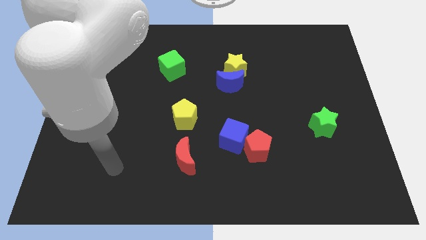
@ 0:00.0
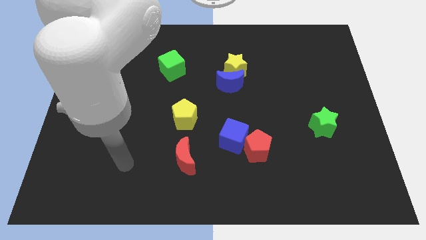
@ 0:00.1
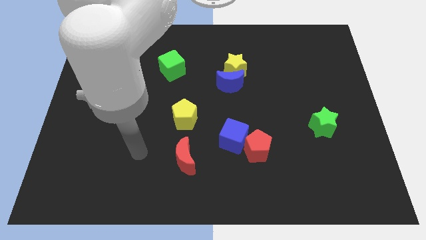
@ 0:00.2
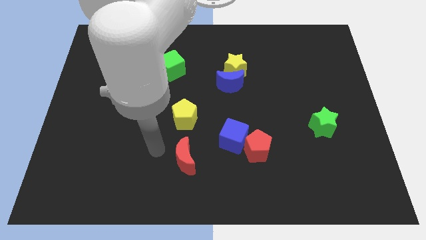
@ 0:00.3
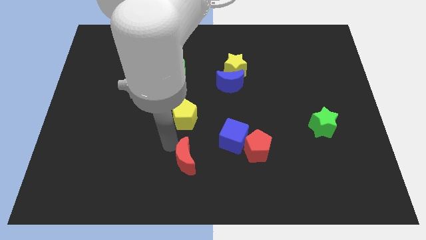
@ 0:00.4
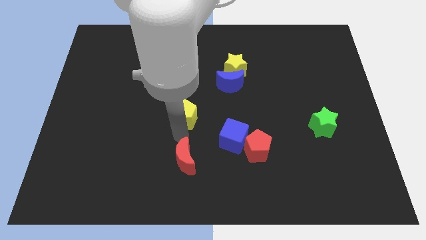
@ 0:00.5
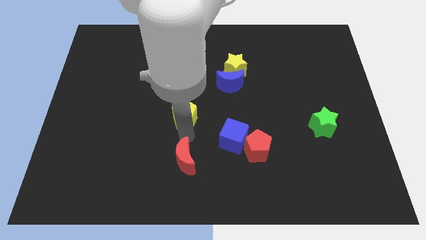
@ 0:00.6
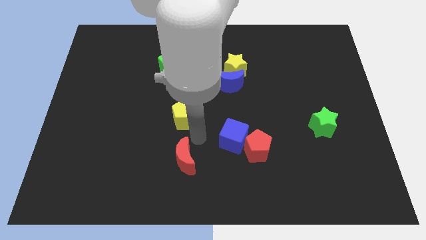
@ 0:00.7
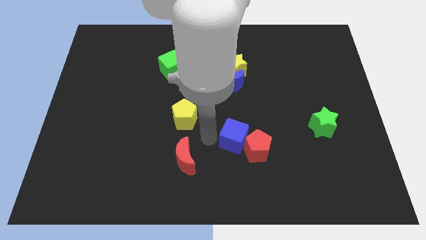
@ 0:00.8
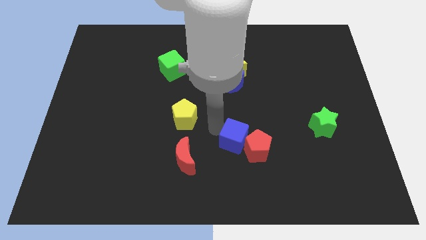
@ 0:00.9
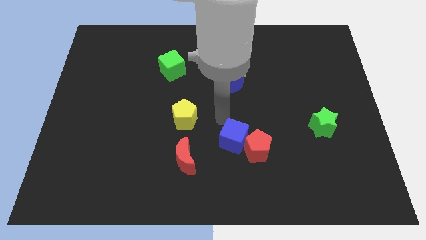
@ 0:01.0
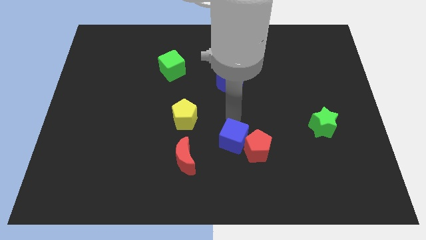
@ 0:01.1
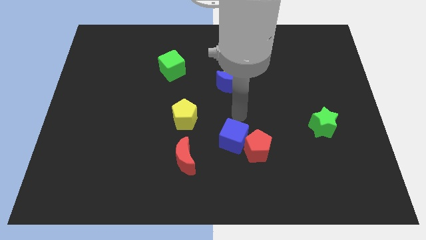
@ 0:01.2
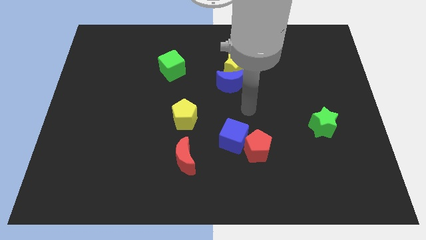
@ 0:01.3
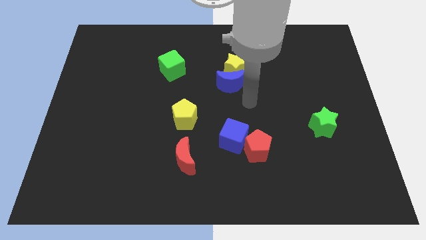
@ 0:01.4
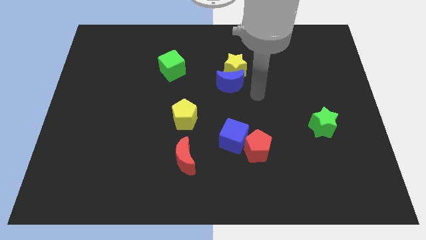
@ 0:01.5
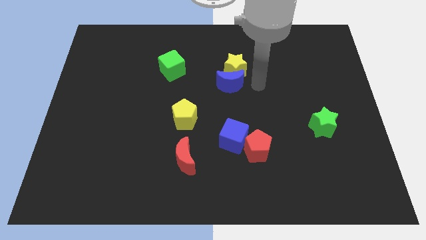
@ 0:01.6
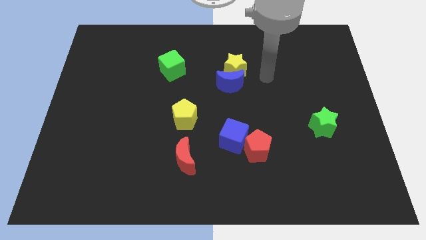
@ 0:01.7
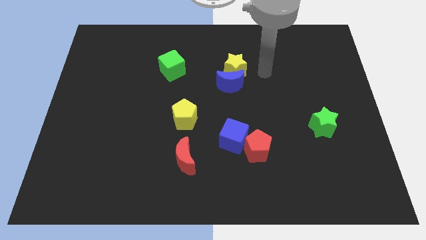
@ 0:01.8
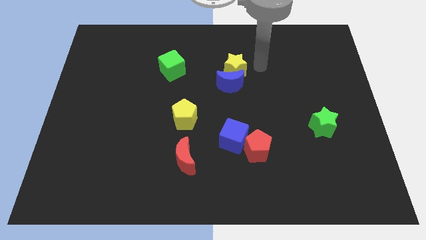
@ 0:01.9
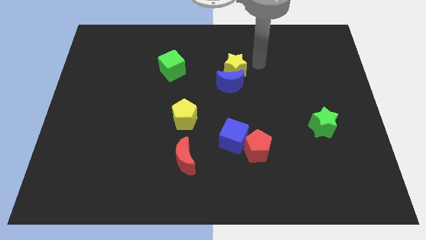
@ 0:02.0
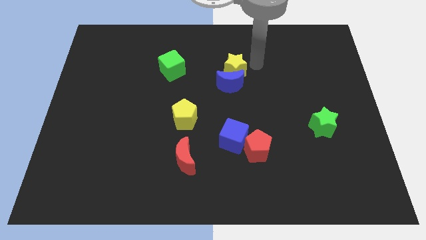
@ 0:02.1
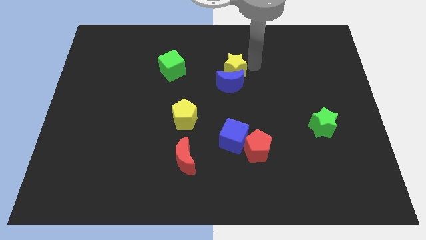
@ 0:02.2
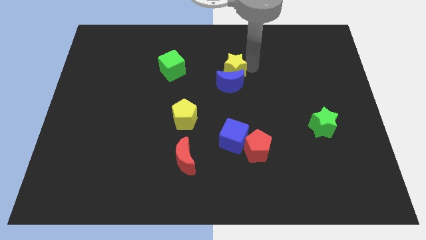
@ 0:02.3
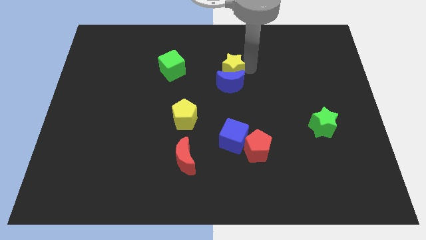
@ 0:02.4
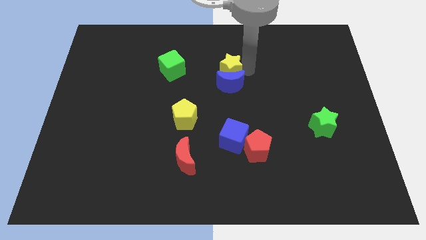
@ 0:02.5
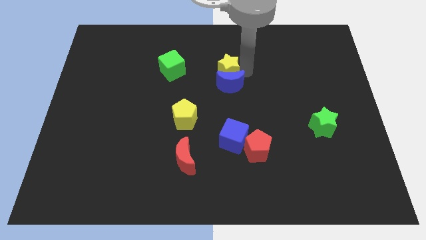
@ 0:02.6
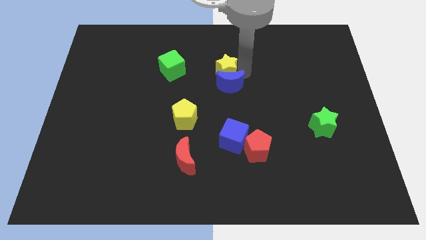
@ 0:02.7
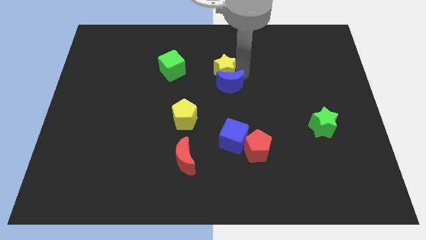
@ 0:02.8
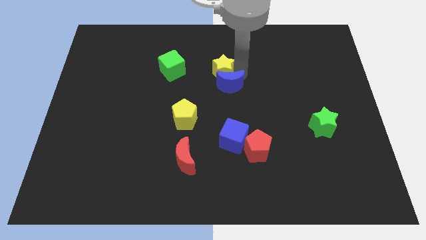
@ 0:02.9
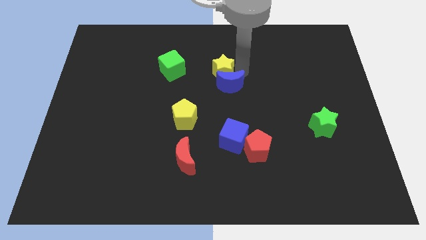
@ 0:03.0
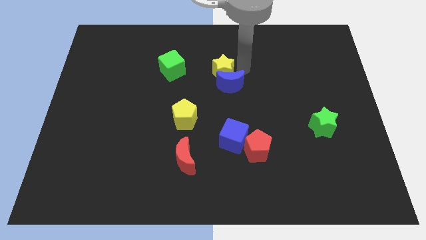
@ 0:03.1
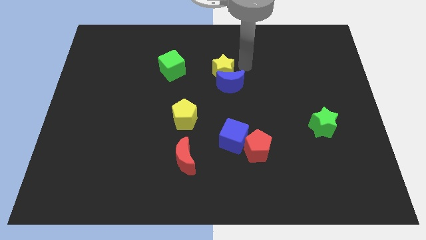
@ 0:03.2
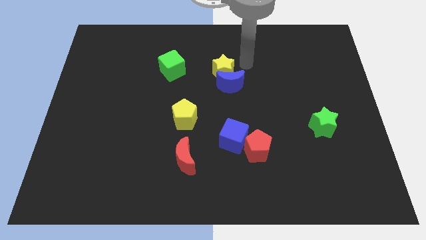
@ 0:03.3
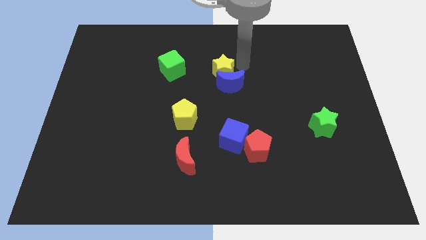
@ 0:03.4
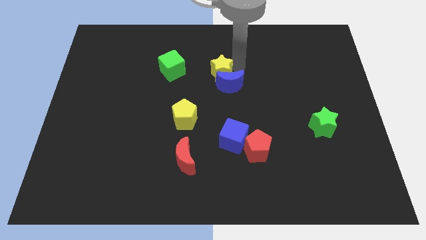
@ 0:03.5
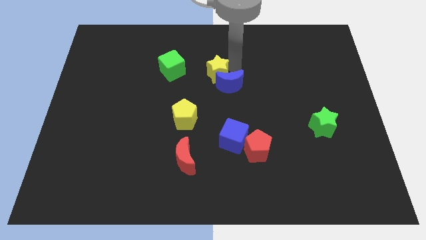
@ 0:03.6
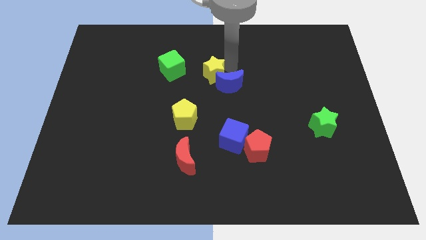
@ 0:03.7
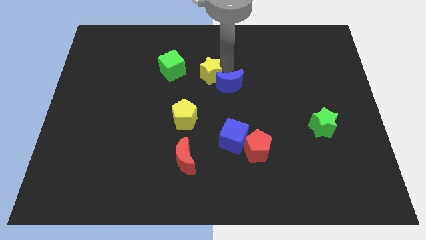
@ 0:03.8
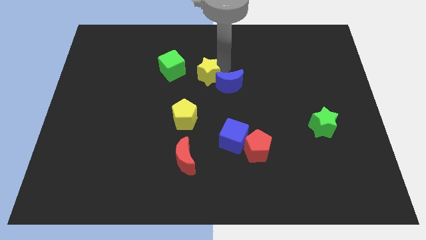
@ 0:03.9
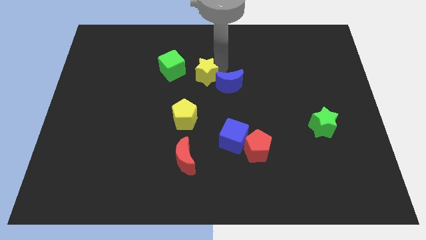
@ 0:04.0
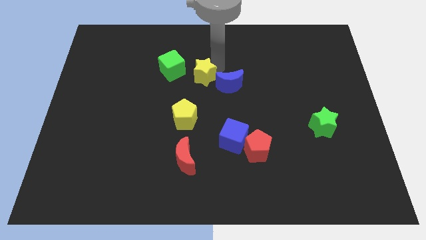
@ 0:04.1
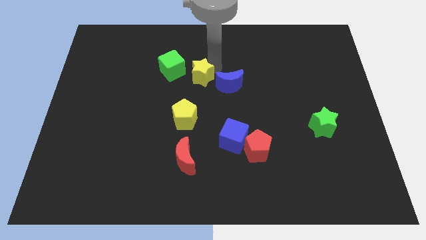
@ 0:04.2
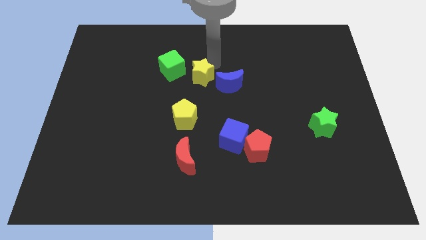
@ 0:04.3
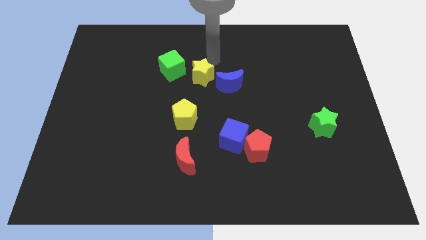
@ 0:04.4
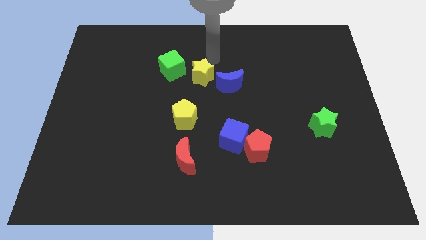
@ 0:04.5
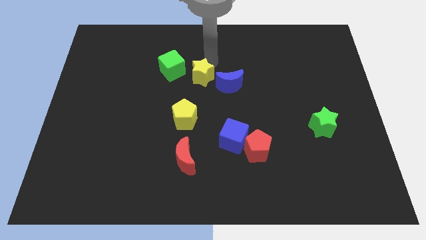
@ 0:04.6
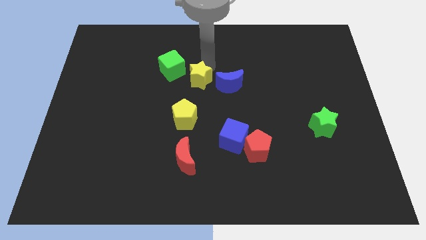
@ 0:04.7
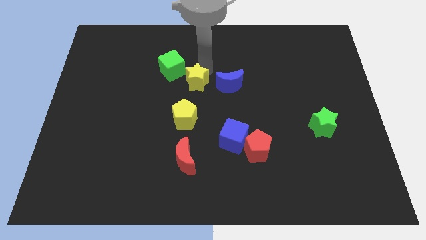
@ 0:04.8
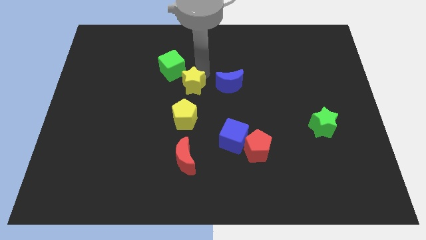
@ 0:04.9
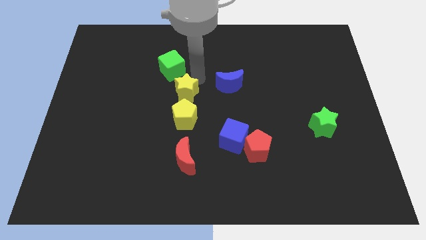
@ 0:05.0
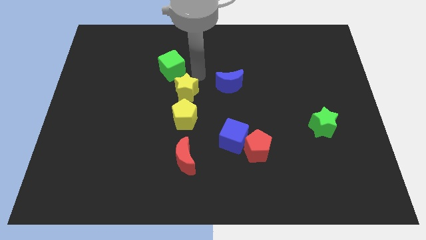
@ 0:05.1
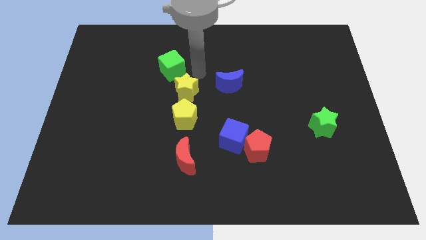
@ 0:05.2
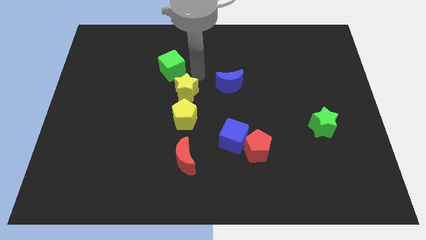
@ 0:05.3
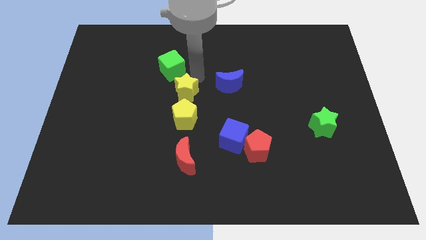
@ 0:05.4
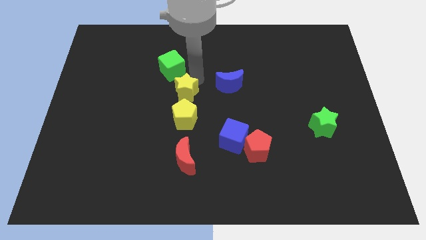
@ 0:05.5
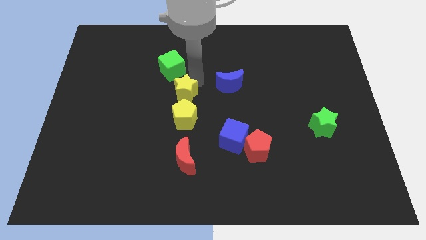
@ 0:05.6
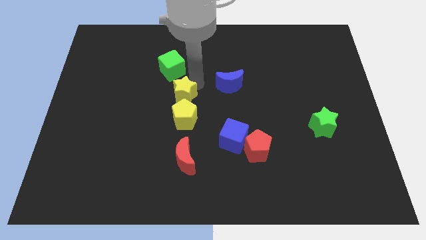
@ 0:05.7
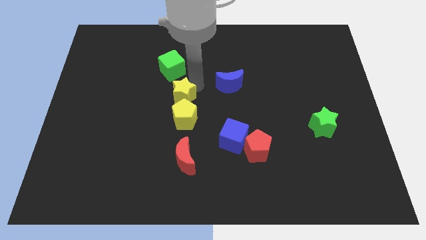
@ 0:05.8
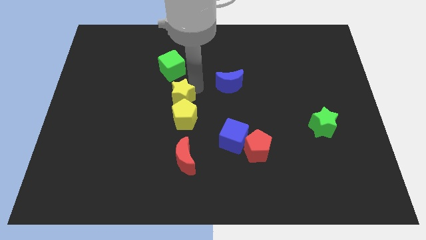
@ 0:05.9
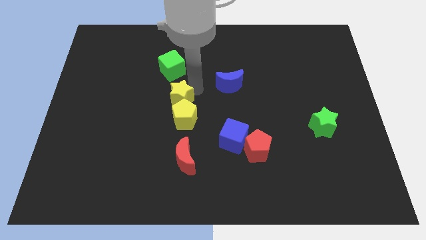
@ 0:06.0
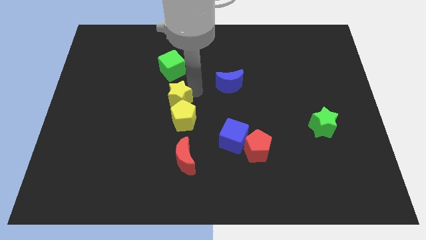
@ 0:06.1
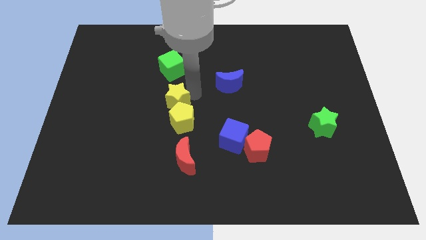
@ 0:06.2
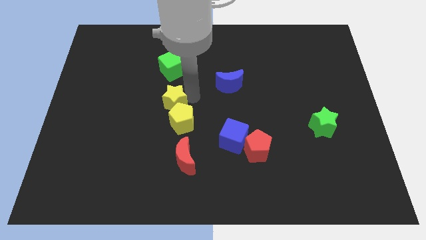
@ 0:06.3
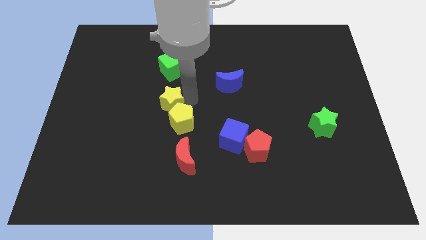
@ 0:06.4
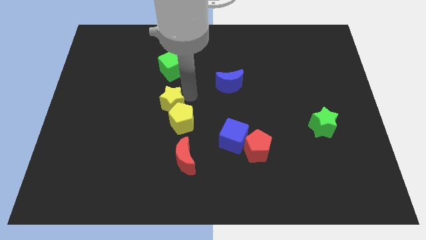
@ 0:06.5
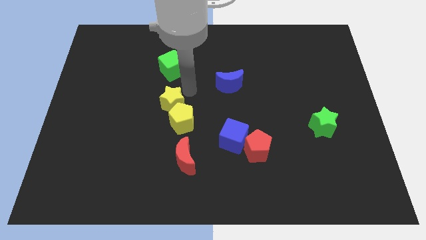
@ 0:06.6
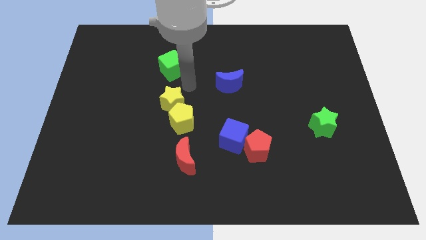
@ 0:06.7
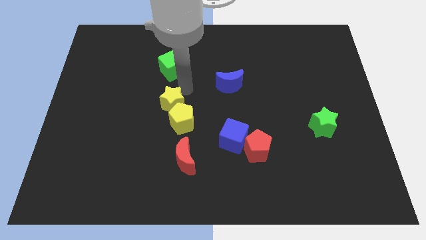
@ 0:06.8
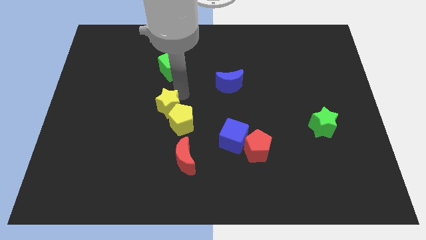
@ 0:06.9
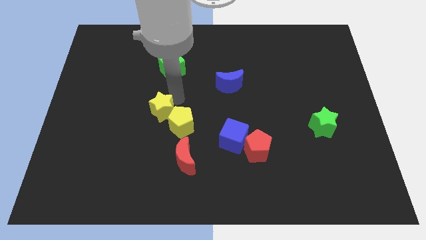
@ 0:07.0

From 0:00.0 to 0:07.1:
move the yellow star downwards and to the left

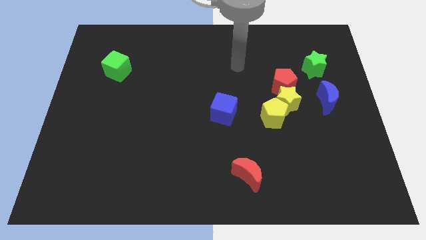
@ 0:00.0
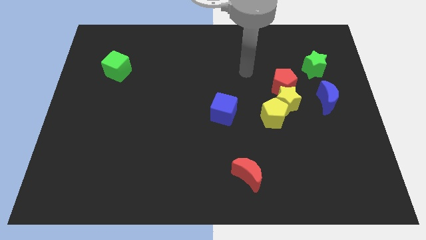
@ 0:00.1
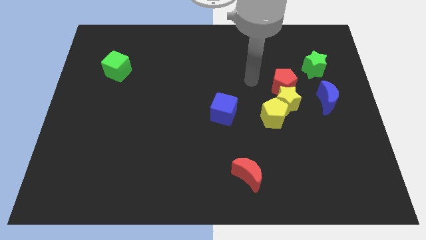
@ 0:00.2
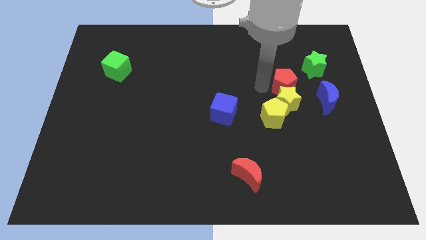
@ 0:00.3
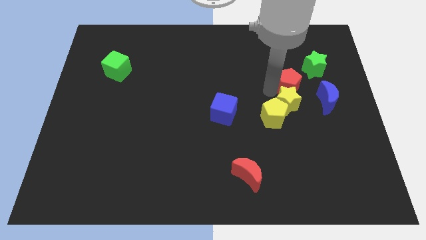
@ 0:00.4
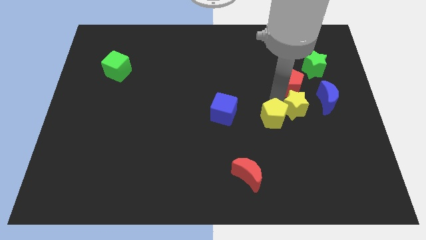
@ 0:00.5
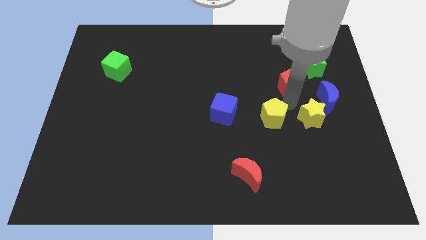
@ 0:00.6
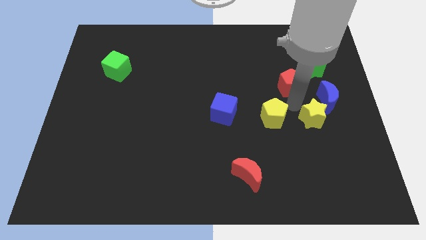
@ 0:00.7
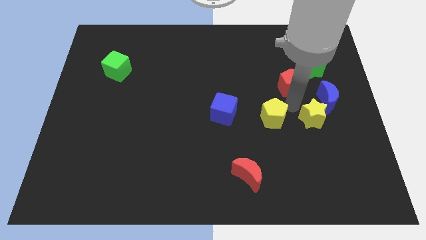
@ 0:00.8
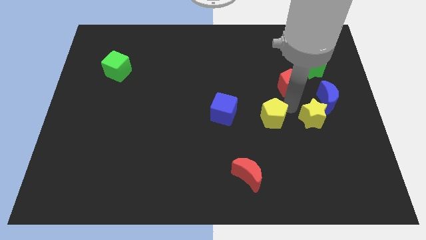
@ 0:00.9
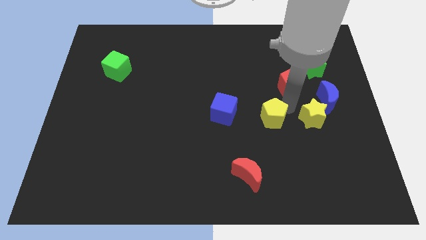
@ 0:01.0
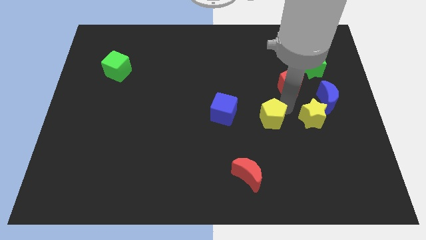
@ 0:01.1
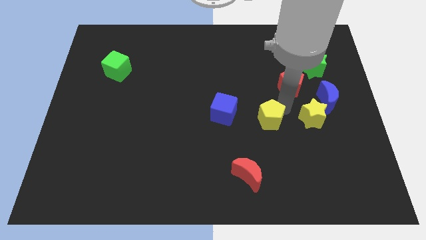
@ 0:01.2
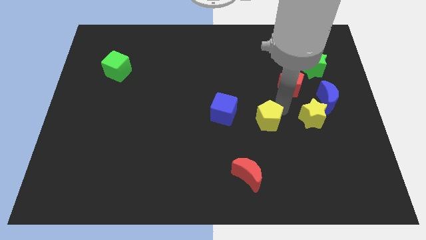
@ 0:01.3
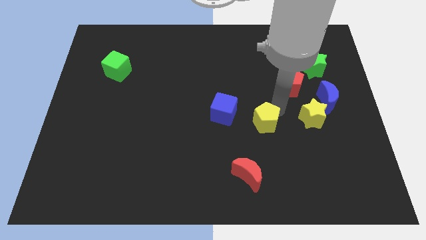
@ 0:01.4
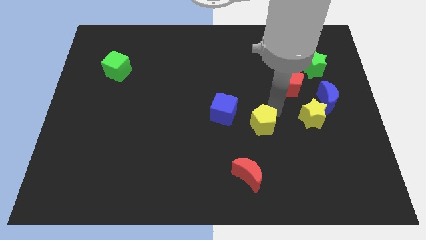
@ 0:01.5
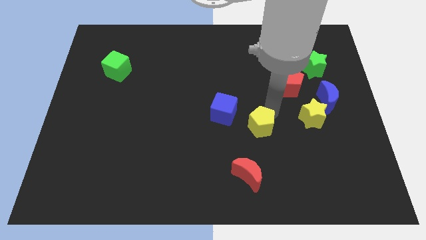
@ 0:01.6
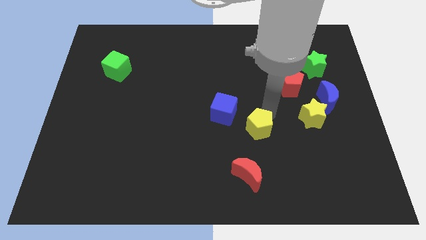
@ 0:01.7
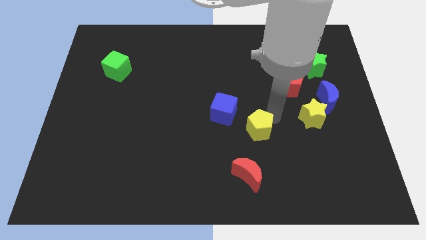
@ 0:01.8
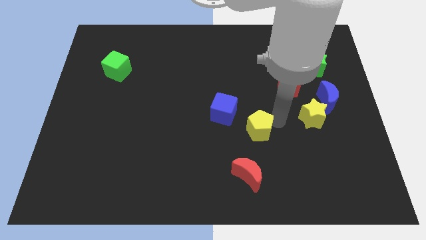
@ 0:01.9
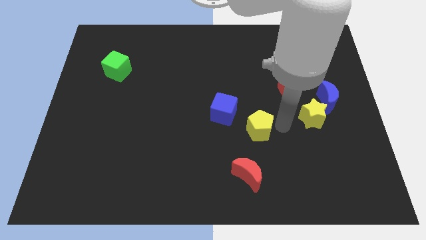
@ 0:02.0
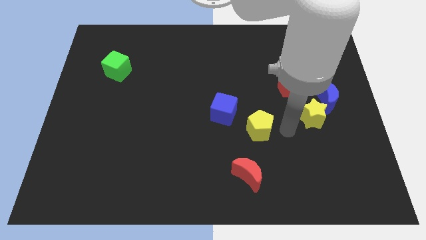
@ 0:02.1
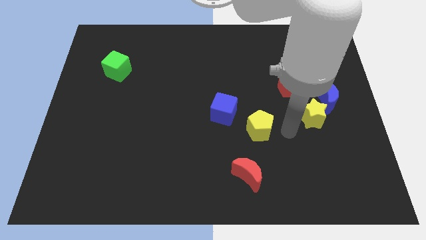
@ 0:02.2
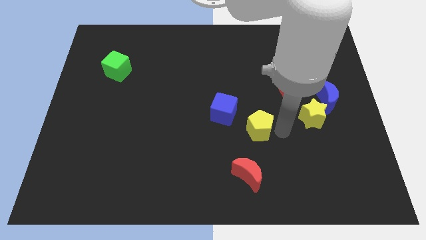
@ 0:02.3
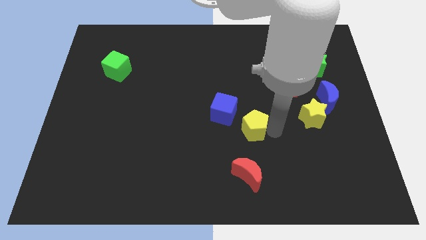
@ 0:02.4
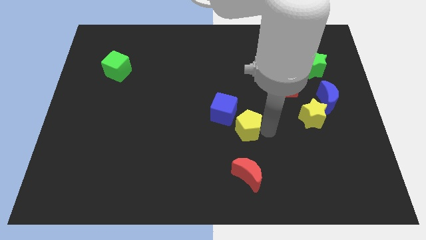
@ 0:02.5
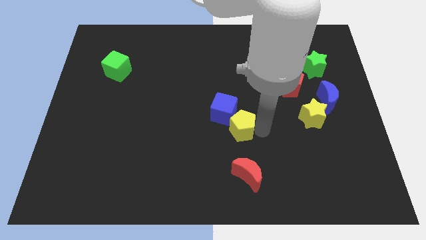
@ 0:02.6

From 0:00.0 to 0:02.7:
slightly move the yellow pentagon left
